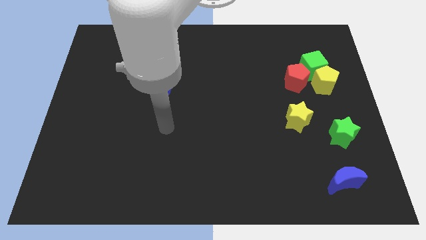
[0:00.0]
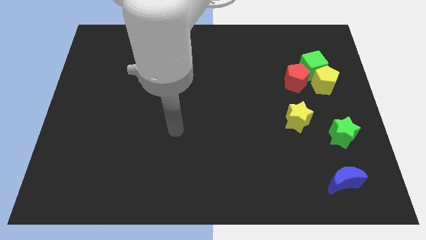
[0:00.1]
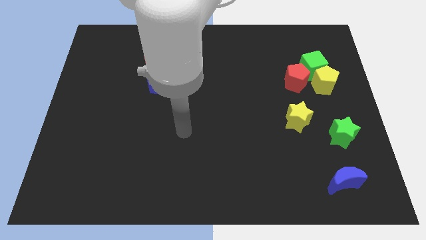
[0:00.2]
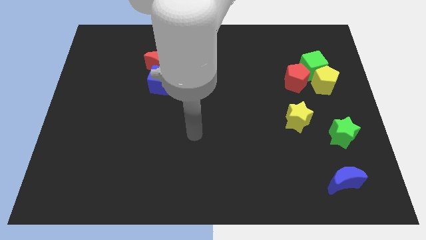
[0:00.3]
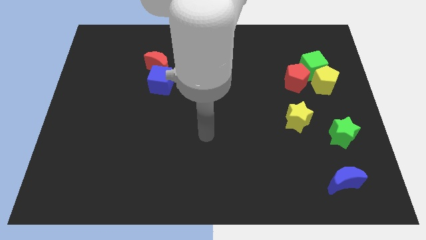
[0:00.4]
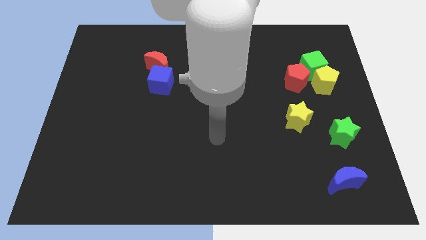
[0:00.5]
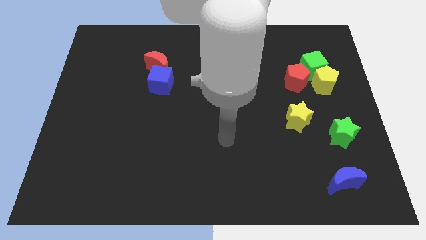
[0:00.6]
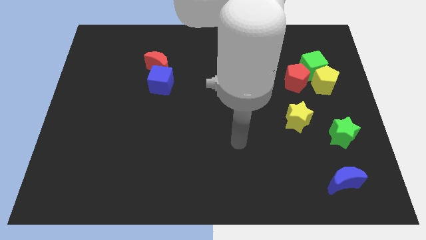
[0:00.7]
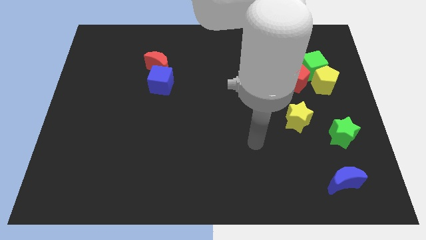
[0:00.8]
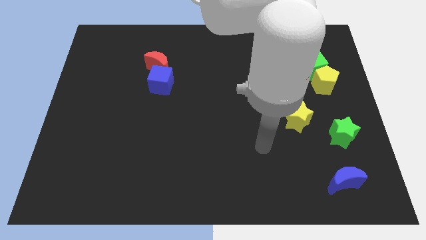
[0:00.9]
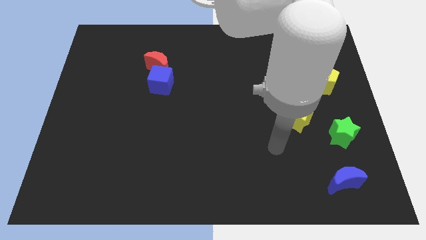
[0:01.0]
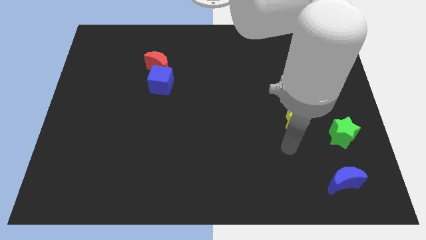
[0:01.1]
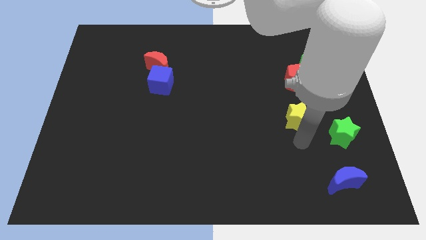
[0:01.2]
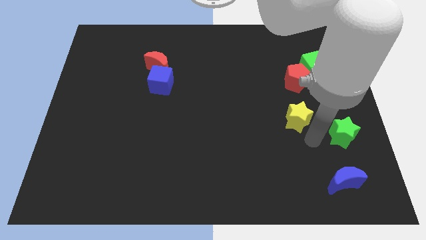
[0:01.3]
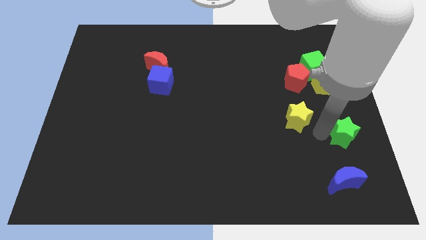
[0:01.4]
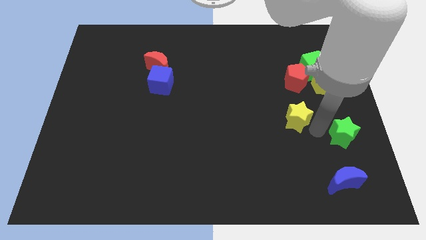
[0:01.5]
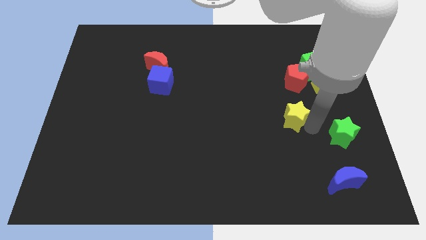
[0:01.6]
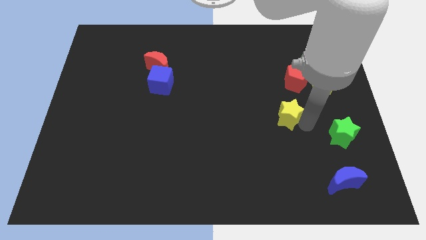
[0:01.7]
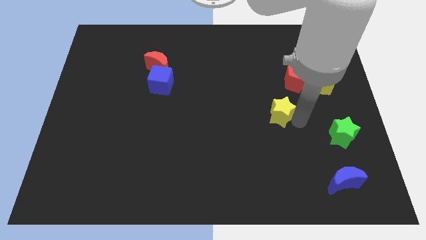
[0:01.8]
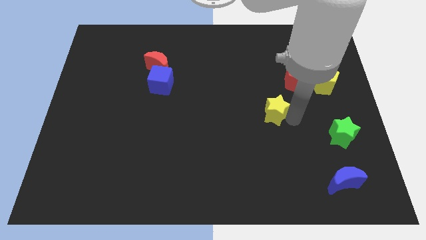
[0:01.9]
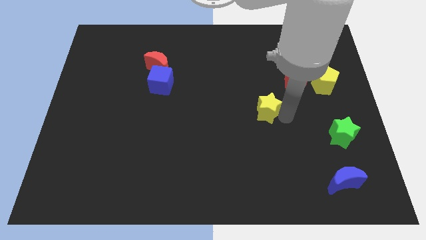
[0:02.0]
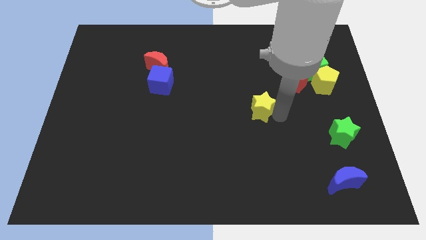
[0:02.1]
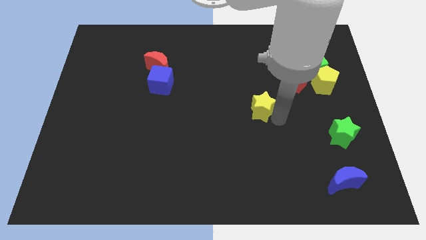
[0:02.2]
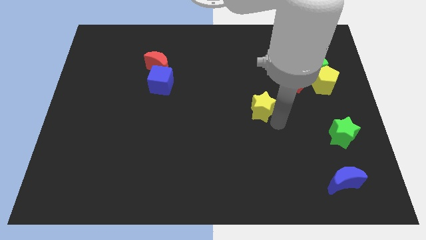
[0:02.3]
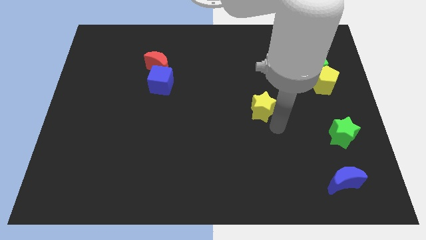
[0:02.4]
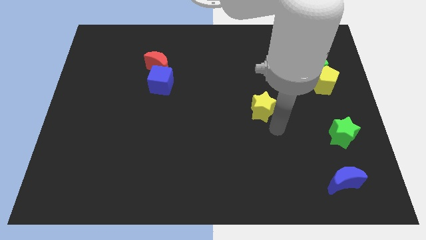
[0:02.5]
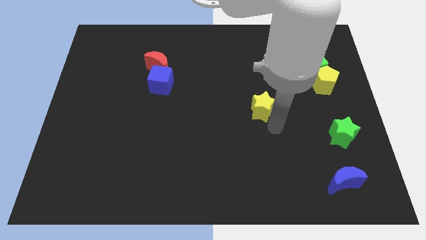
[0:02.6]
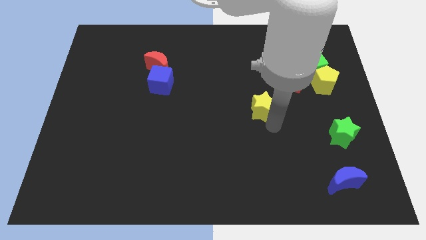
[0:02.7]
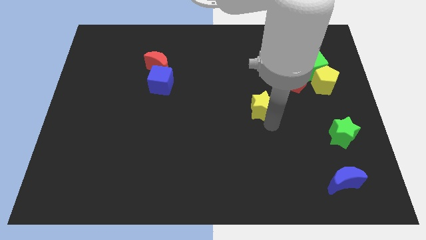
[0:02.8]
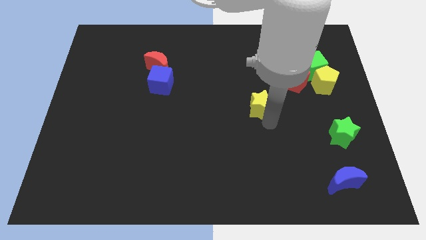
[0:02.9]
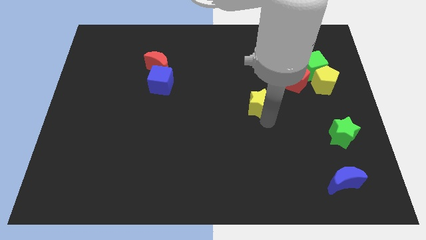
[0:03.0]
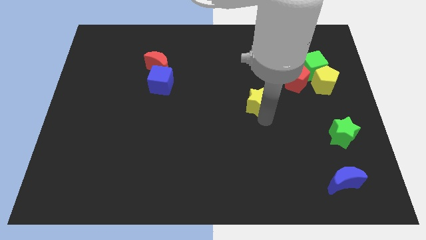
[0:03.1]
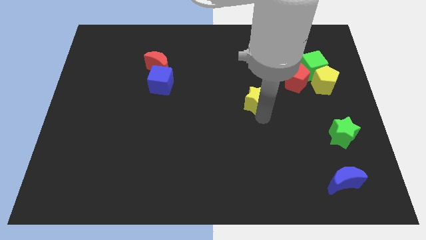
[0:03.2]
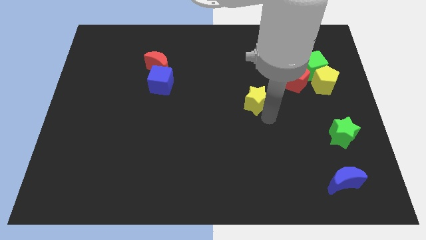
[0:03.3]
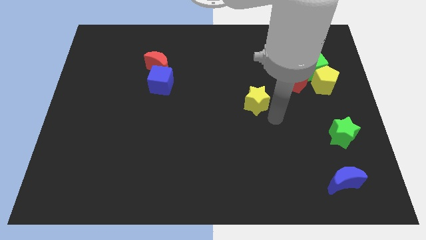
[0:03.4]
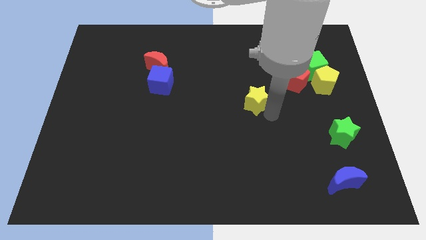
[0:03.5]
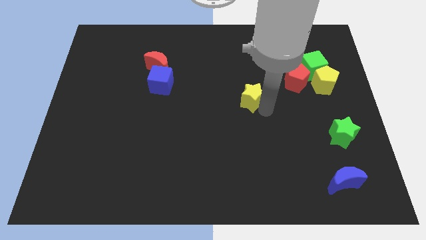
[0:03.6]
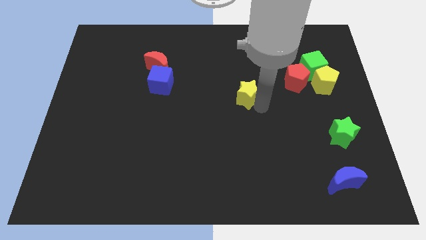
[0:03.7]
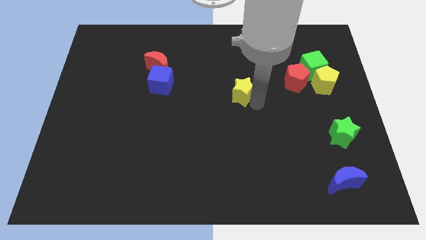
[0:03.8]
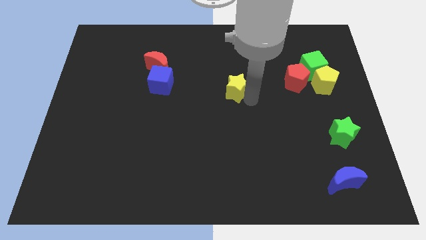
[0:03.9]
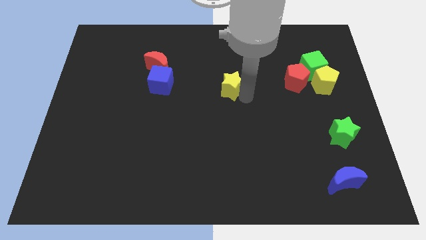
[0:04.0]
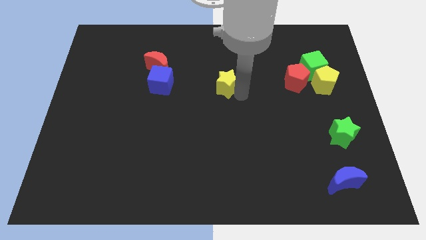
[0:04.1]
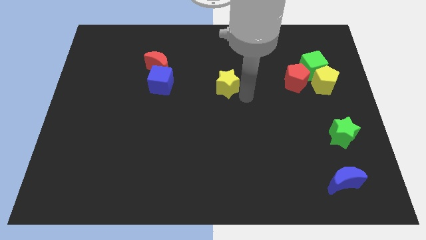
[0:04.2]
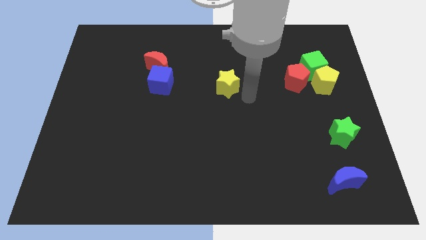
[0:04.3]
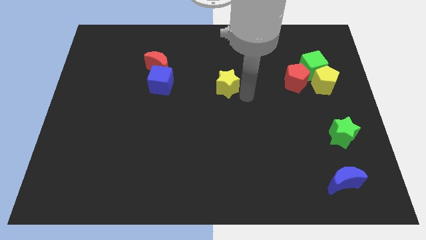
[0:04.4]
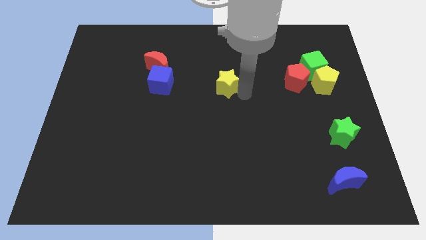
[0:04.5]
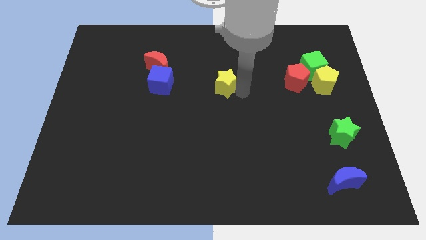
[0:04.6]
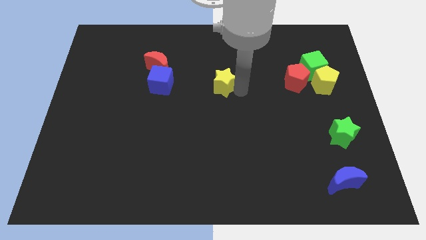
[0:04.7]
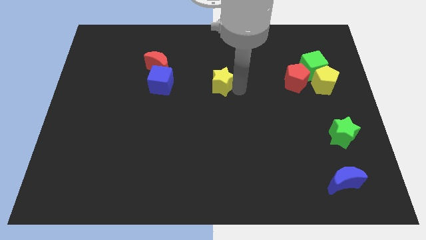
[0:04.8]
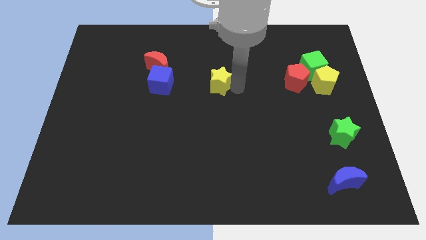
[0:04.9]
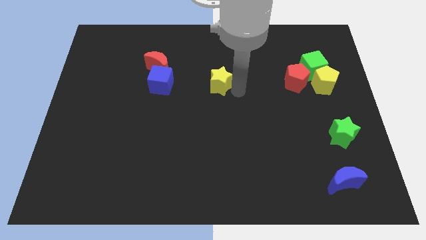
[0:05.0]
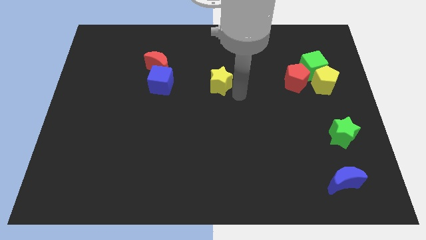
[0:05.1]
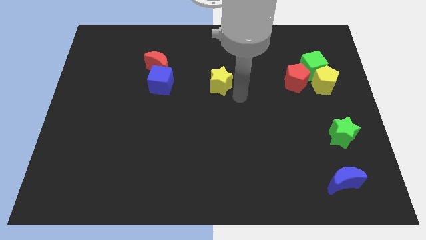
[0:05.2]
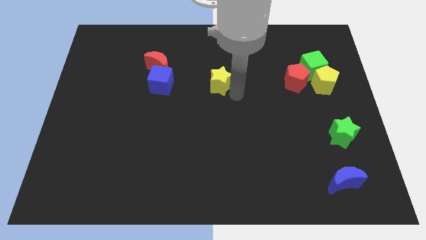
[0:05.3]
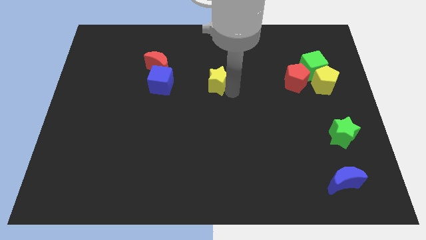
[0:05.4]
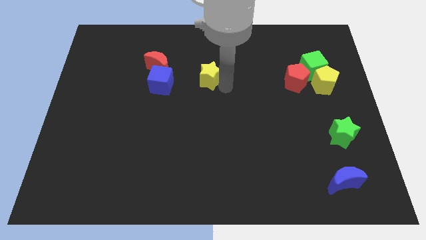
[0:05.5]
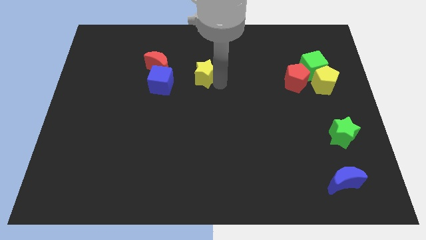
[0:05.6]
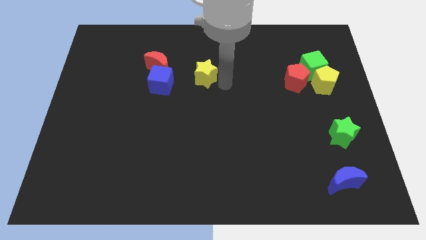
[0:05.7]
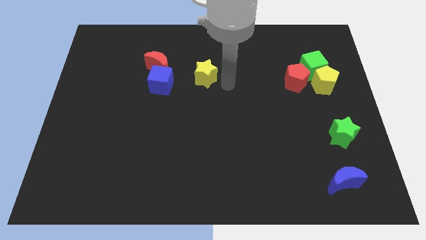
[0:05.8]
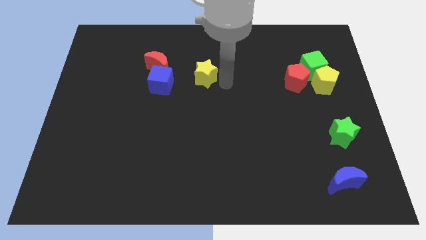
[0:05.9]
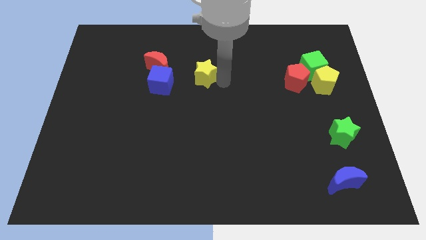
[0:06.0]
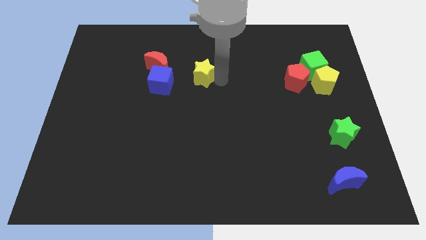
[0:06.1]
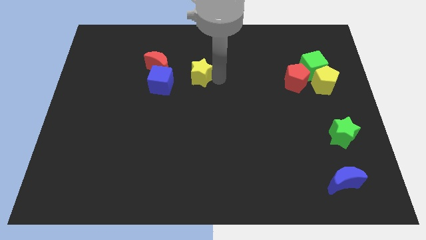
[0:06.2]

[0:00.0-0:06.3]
put the yellow star to the top right of the blue cube

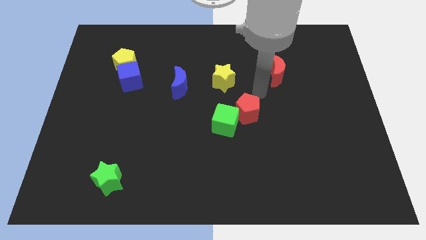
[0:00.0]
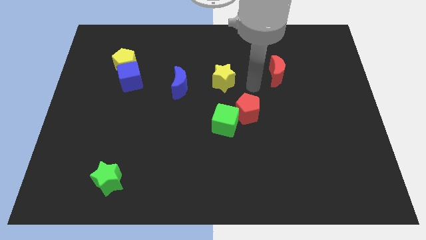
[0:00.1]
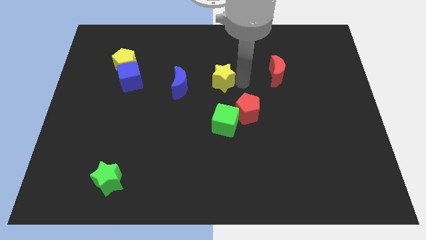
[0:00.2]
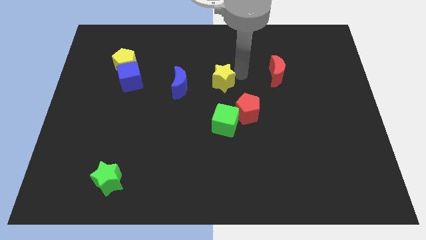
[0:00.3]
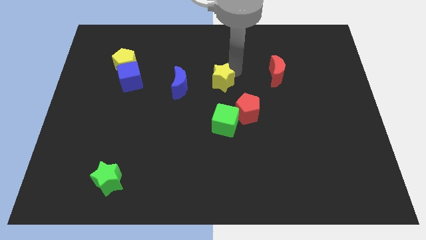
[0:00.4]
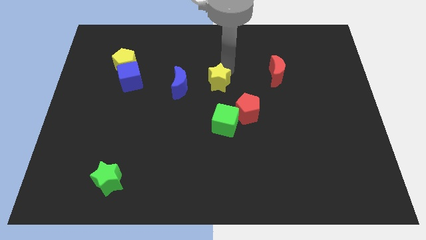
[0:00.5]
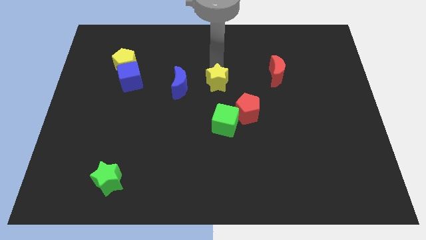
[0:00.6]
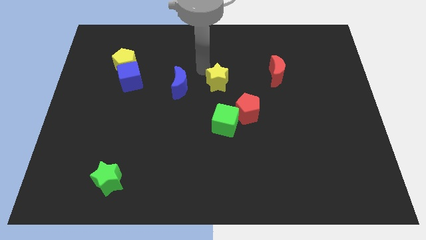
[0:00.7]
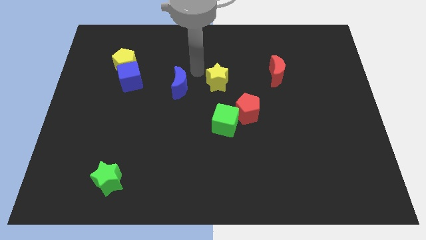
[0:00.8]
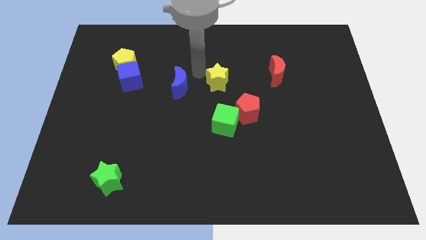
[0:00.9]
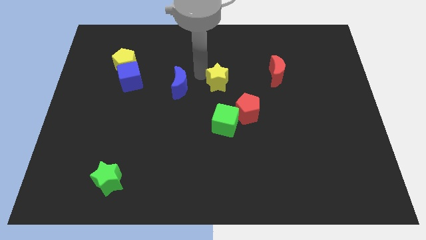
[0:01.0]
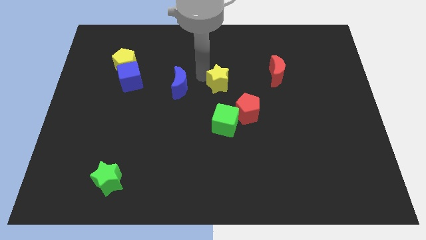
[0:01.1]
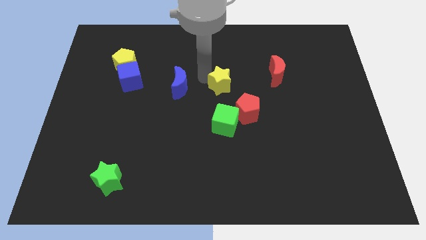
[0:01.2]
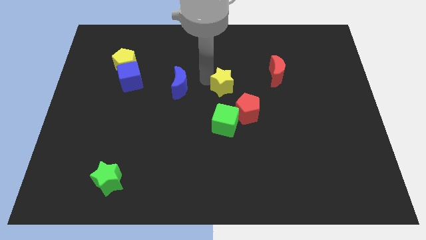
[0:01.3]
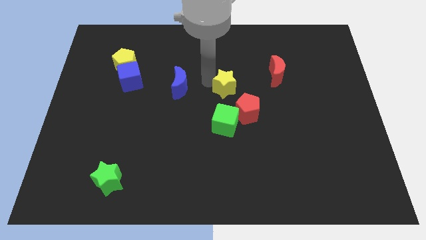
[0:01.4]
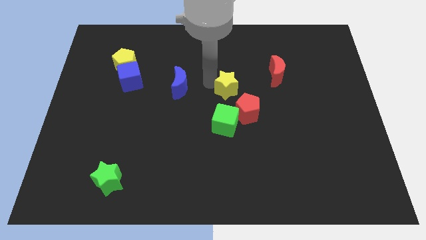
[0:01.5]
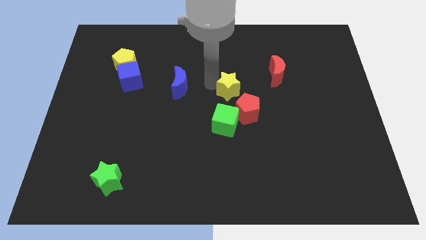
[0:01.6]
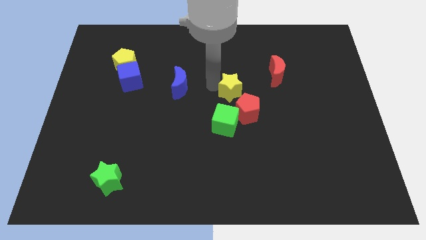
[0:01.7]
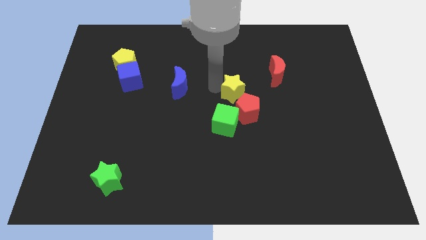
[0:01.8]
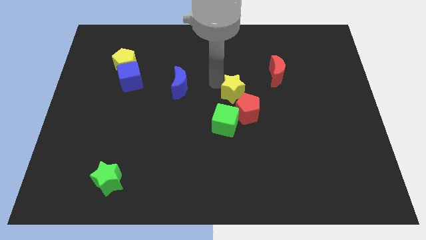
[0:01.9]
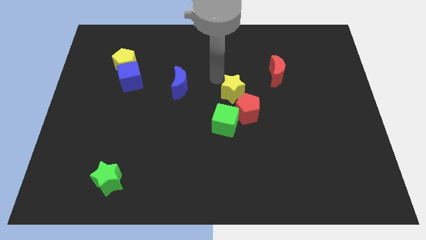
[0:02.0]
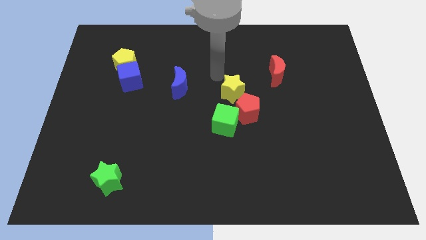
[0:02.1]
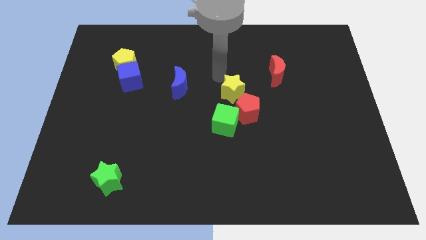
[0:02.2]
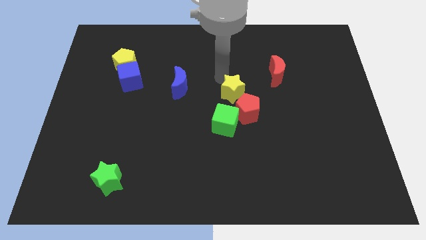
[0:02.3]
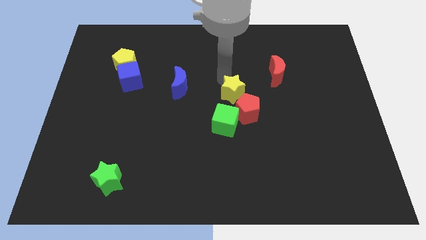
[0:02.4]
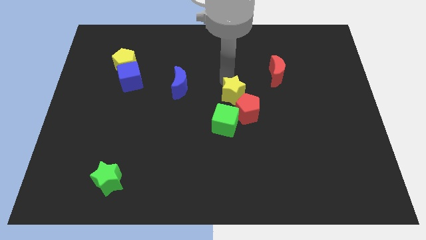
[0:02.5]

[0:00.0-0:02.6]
push the yellow star to the top right of the green cube
